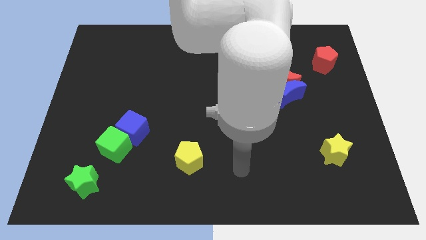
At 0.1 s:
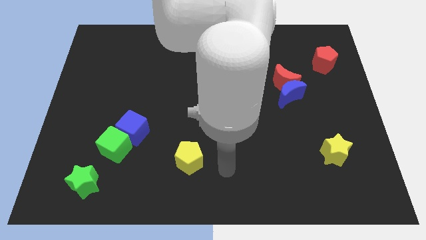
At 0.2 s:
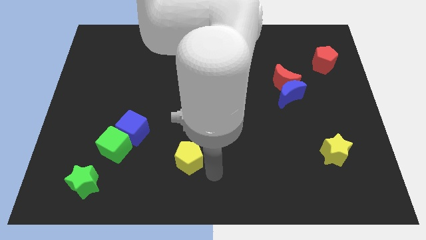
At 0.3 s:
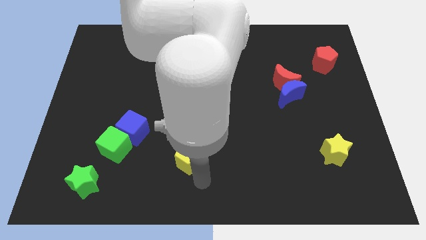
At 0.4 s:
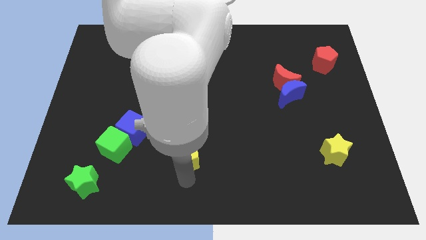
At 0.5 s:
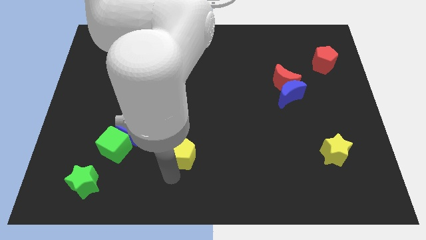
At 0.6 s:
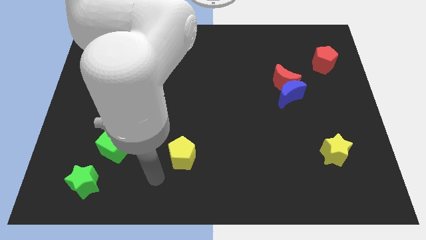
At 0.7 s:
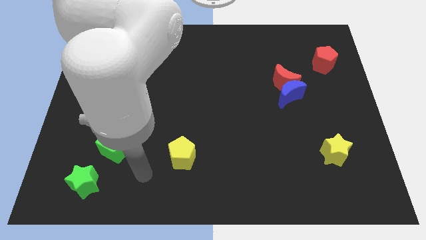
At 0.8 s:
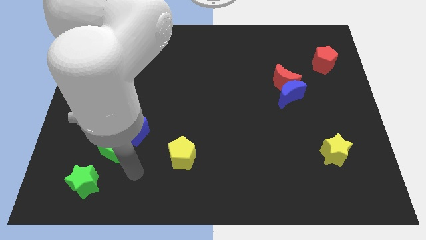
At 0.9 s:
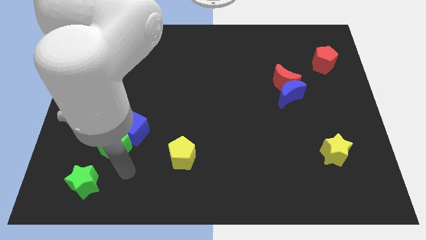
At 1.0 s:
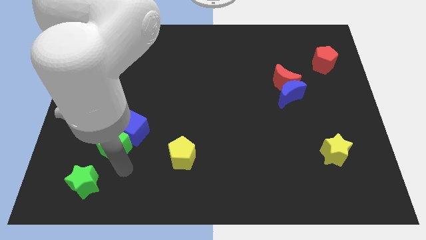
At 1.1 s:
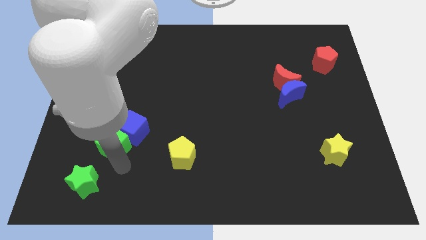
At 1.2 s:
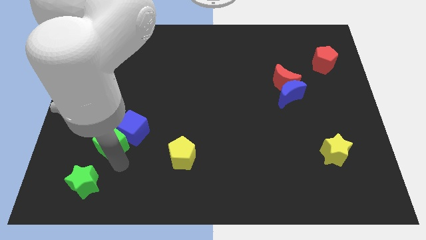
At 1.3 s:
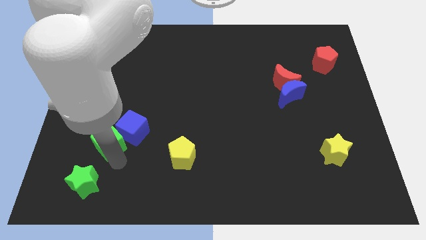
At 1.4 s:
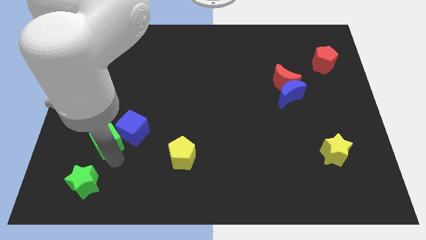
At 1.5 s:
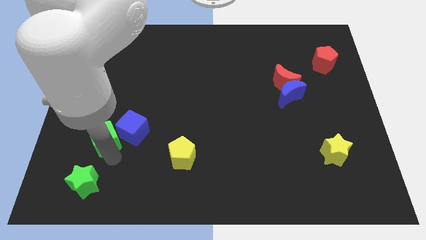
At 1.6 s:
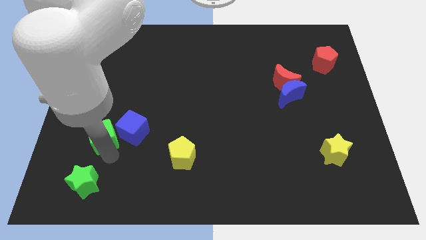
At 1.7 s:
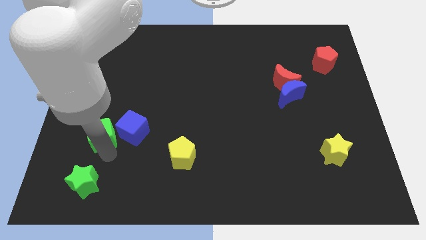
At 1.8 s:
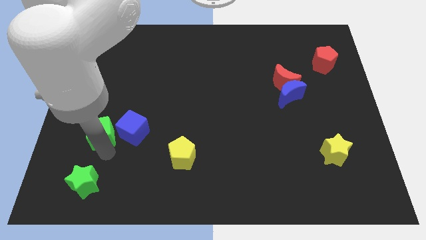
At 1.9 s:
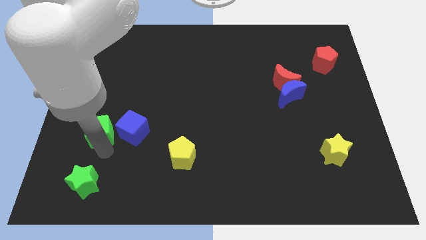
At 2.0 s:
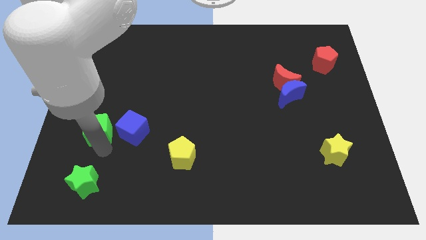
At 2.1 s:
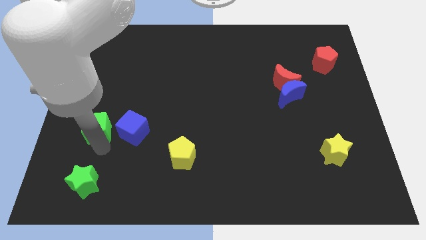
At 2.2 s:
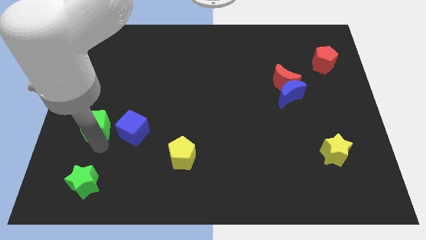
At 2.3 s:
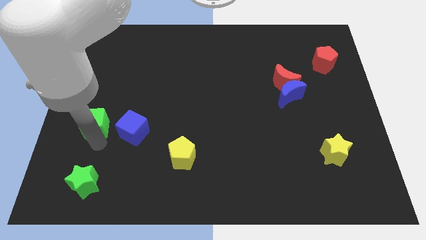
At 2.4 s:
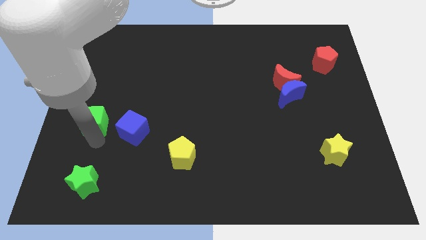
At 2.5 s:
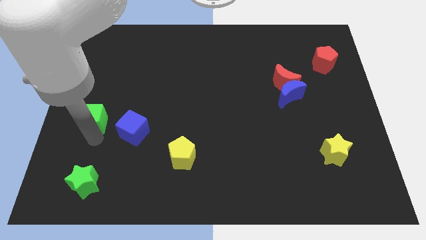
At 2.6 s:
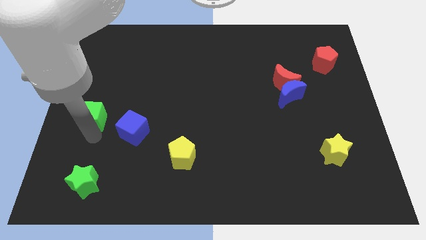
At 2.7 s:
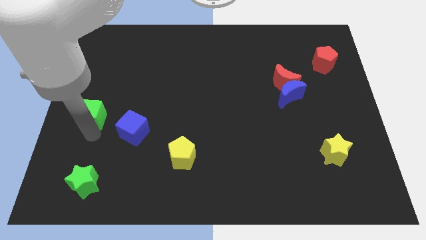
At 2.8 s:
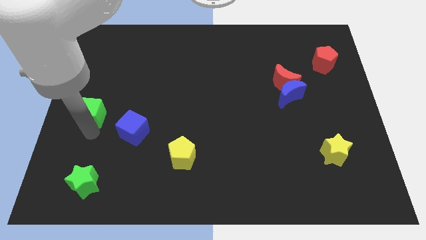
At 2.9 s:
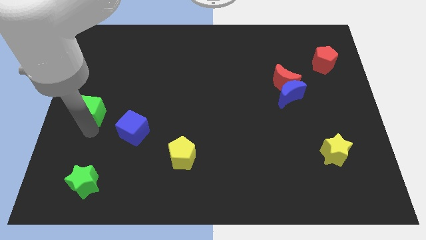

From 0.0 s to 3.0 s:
slide the green cube up a little

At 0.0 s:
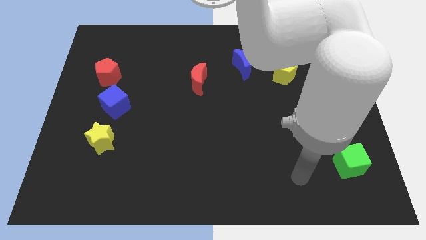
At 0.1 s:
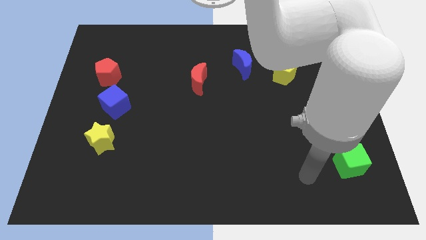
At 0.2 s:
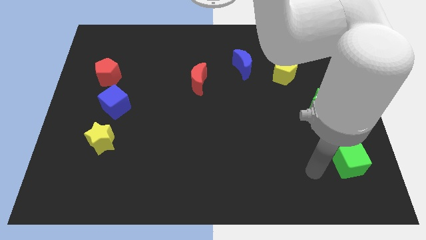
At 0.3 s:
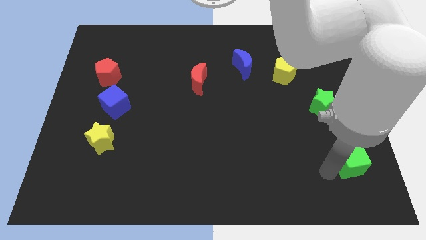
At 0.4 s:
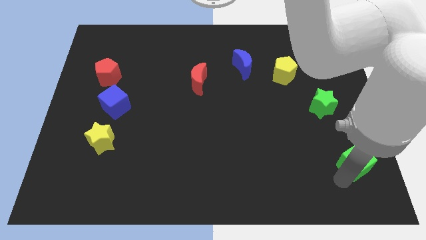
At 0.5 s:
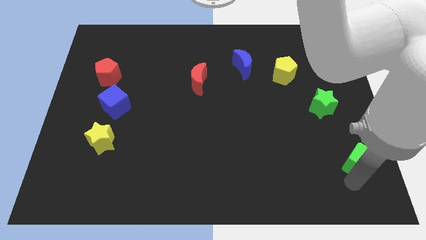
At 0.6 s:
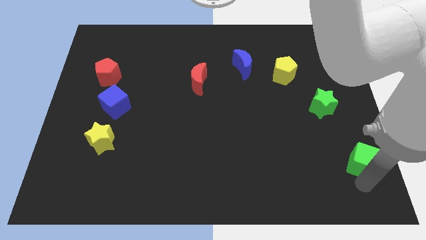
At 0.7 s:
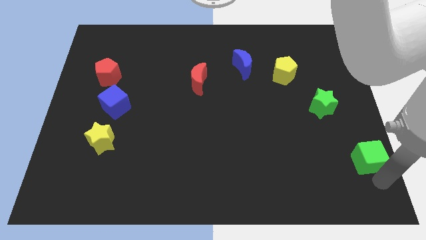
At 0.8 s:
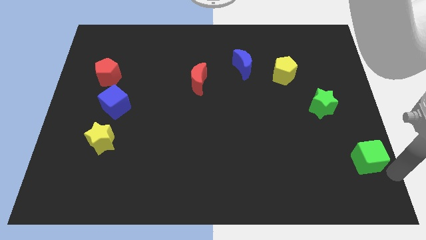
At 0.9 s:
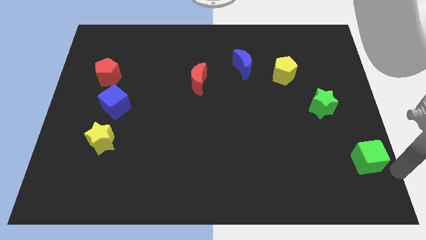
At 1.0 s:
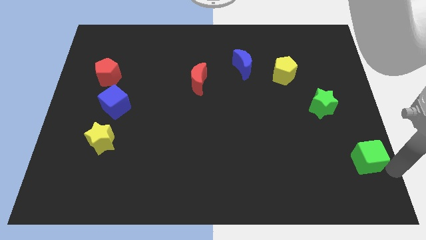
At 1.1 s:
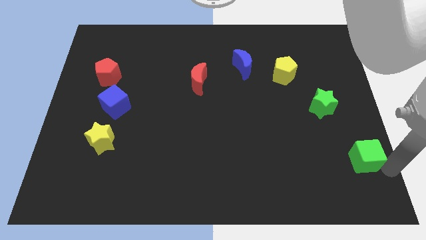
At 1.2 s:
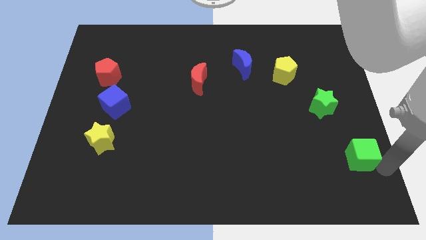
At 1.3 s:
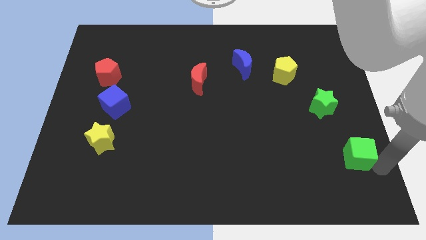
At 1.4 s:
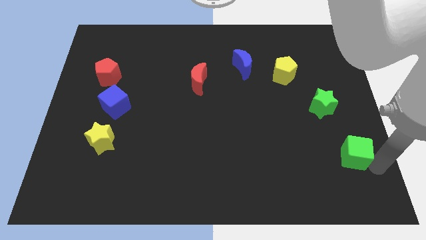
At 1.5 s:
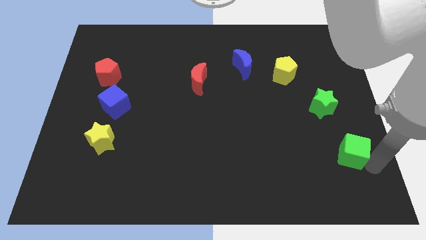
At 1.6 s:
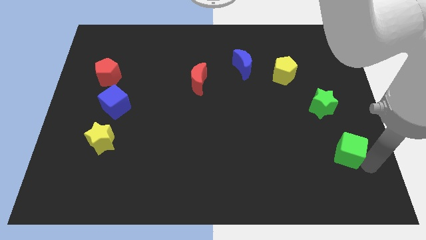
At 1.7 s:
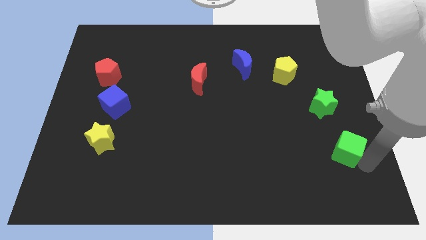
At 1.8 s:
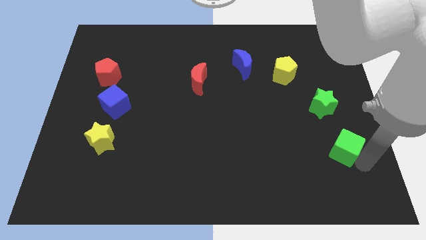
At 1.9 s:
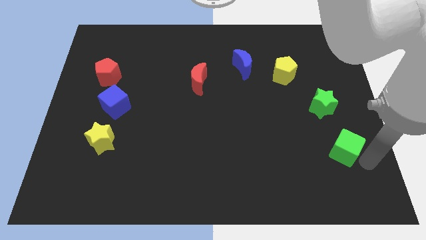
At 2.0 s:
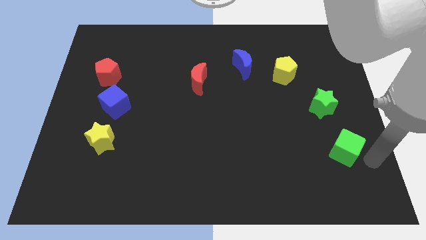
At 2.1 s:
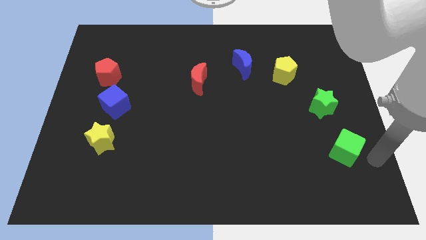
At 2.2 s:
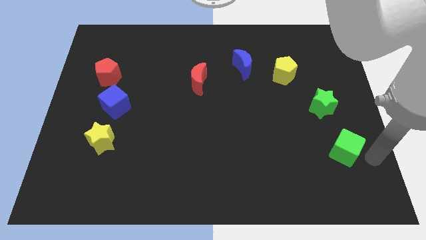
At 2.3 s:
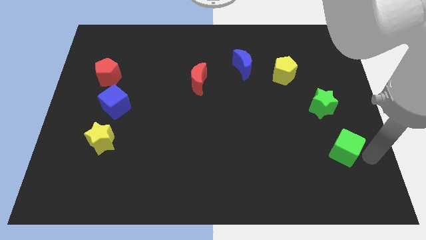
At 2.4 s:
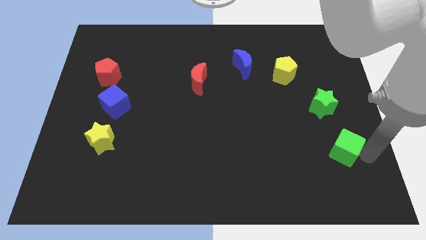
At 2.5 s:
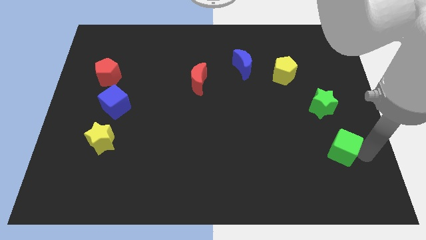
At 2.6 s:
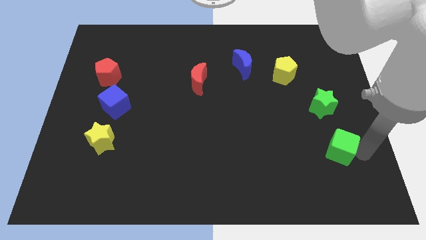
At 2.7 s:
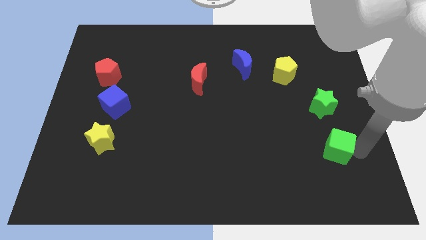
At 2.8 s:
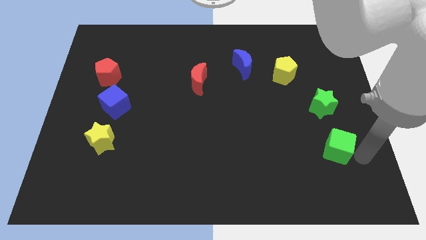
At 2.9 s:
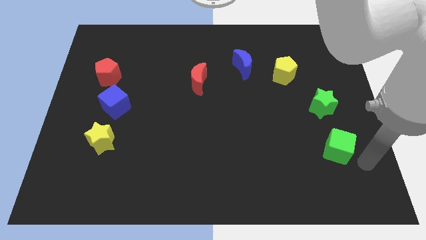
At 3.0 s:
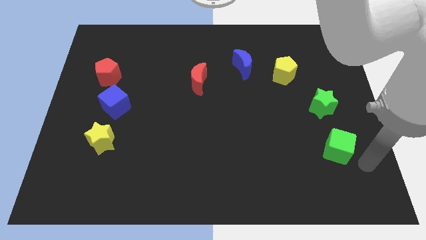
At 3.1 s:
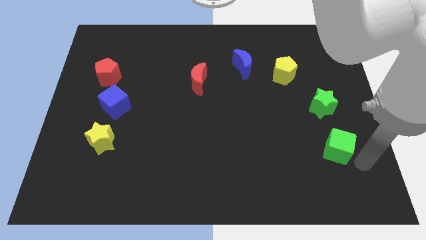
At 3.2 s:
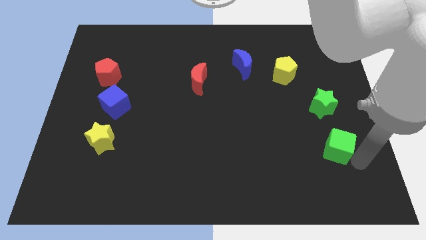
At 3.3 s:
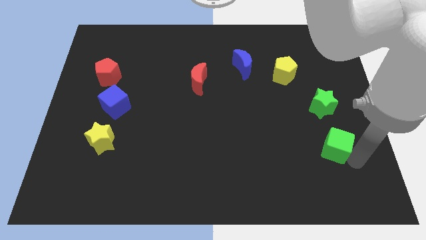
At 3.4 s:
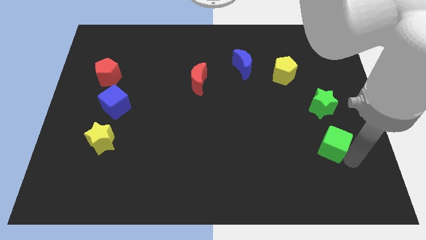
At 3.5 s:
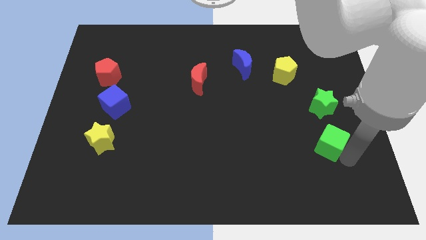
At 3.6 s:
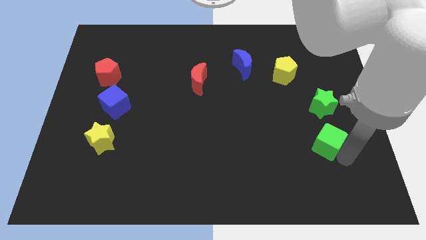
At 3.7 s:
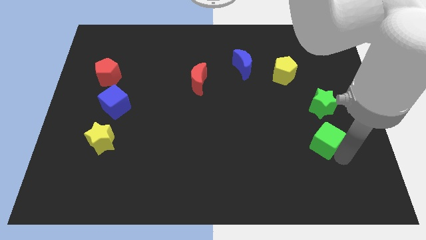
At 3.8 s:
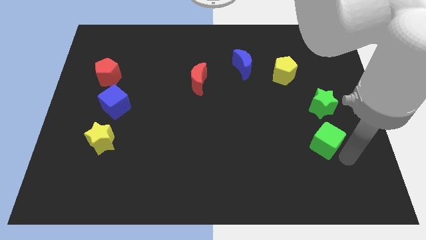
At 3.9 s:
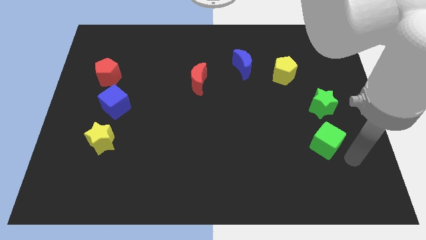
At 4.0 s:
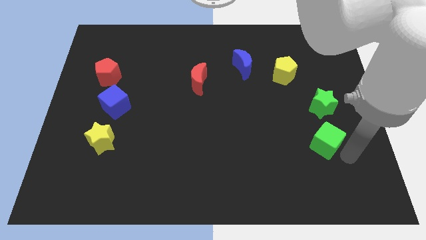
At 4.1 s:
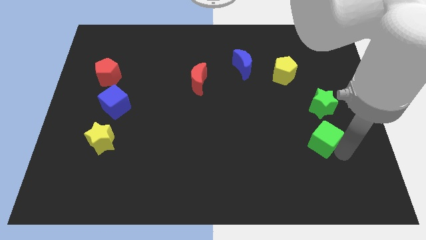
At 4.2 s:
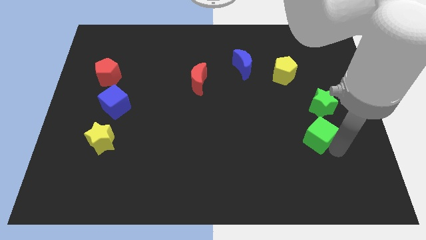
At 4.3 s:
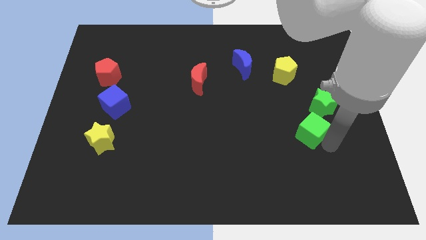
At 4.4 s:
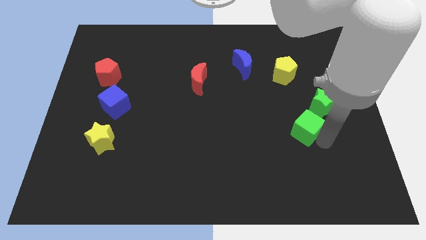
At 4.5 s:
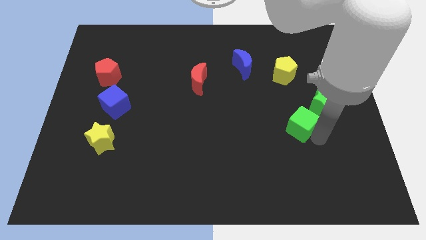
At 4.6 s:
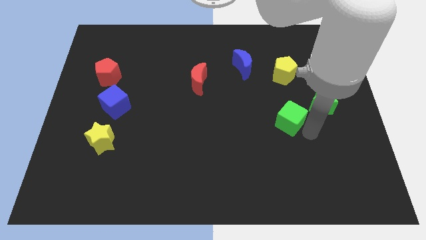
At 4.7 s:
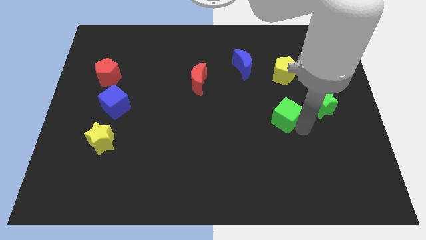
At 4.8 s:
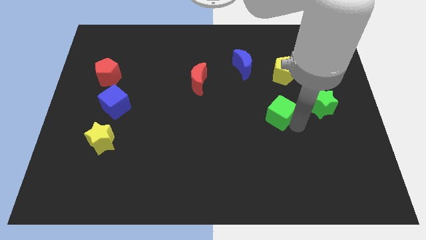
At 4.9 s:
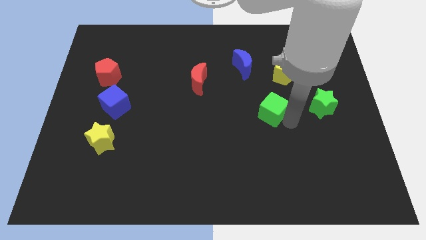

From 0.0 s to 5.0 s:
push the green cube upwards and left

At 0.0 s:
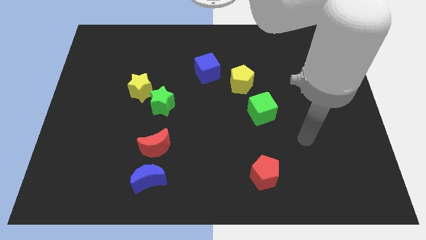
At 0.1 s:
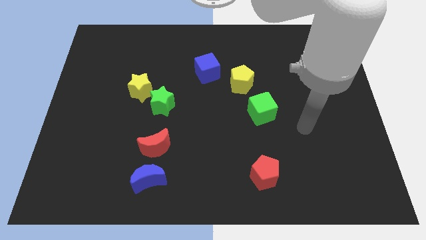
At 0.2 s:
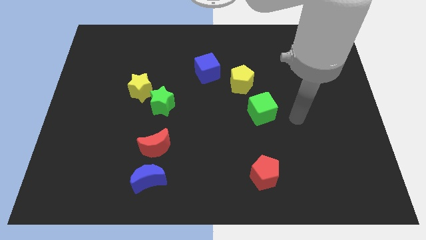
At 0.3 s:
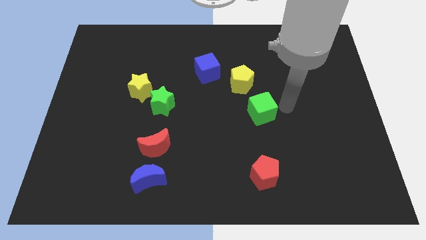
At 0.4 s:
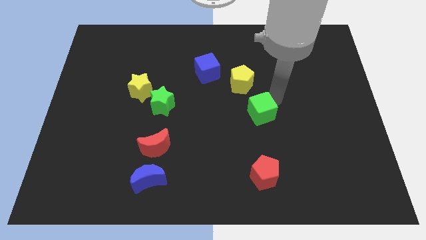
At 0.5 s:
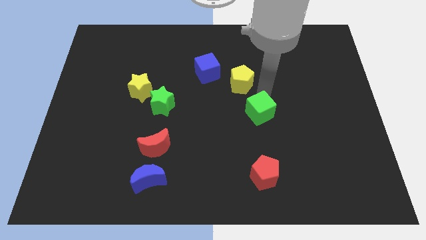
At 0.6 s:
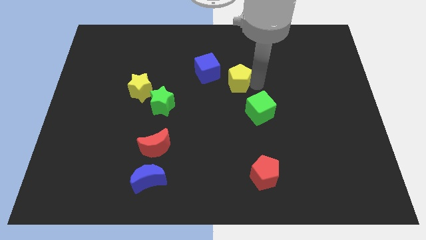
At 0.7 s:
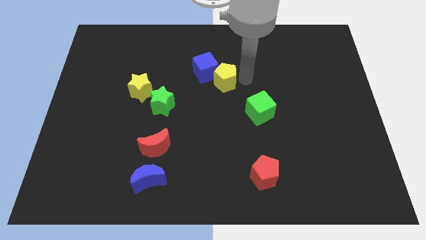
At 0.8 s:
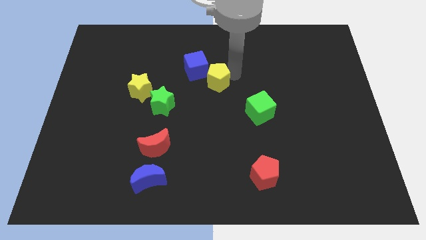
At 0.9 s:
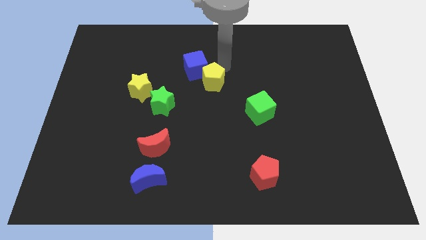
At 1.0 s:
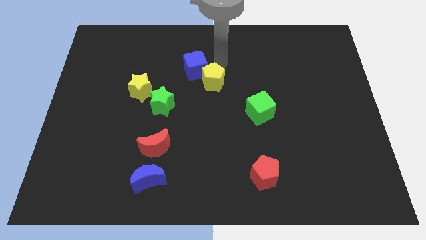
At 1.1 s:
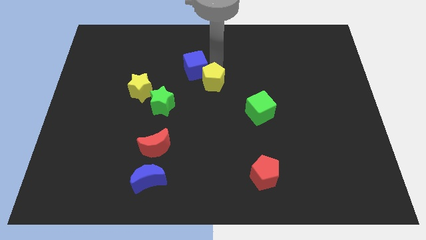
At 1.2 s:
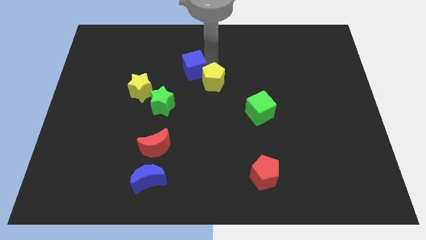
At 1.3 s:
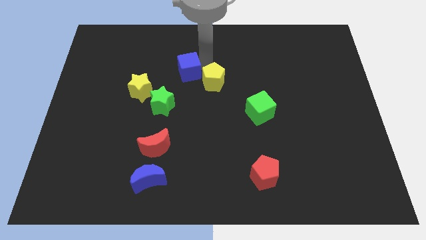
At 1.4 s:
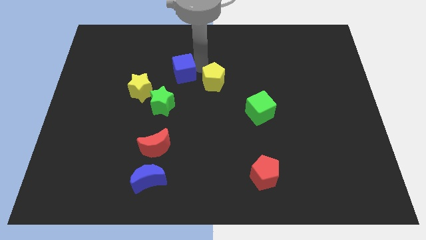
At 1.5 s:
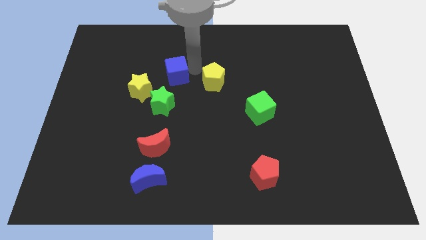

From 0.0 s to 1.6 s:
move the blue cube to the left a little bit
